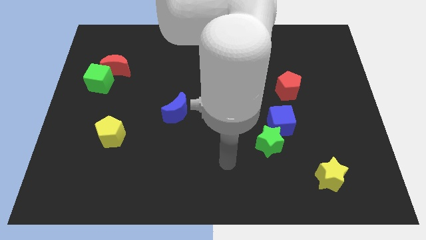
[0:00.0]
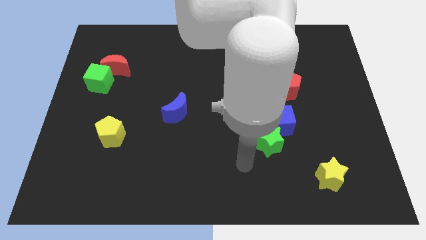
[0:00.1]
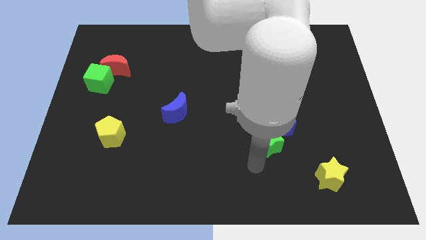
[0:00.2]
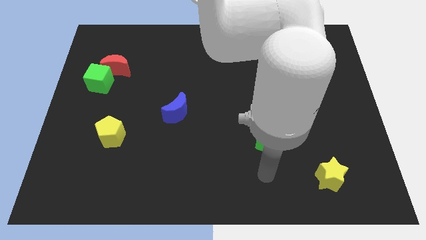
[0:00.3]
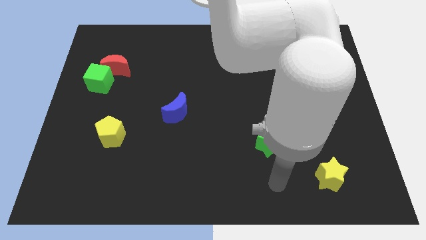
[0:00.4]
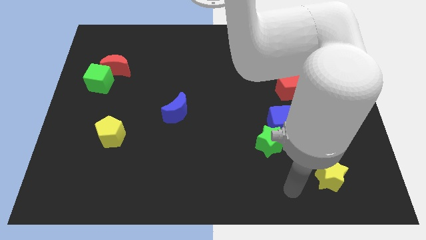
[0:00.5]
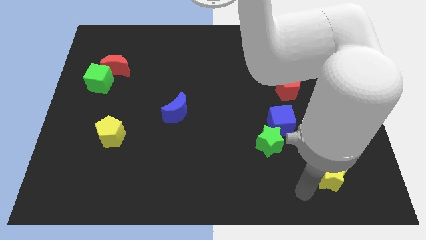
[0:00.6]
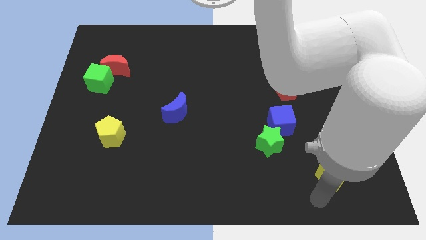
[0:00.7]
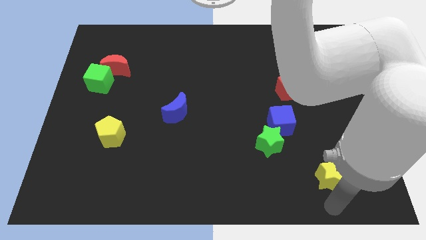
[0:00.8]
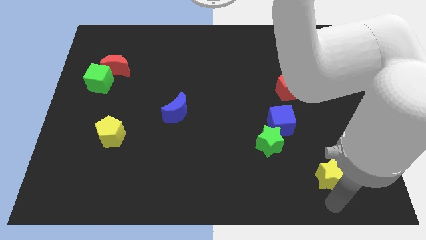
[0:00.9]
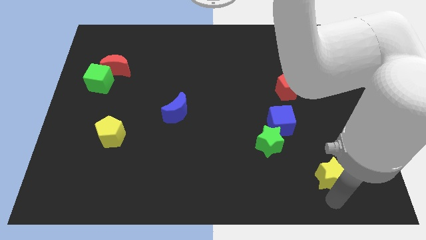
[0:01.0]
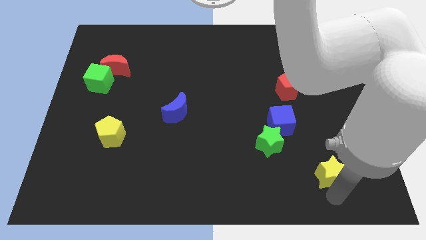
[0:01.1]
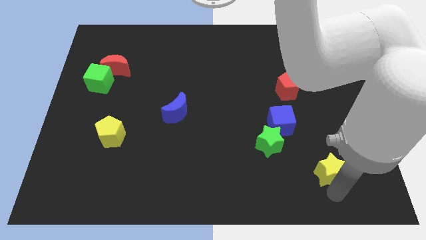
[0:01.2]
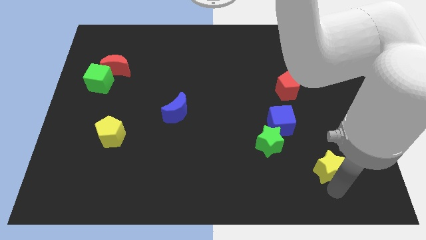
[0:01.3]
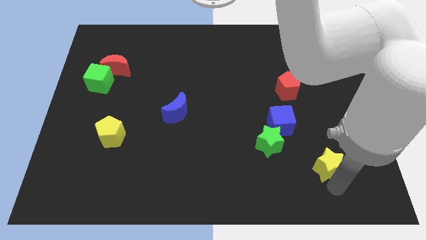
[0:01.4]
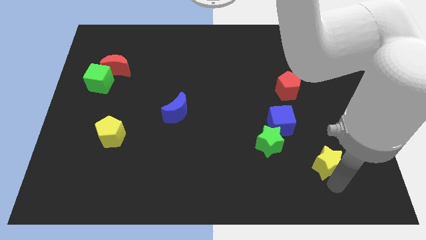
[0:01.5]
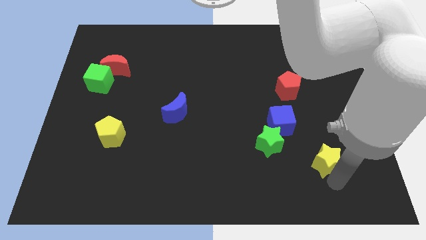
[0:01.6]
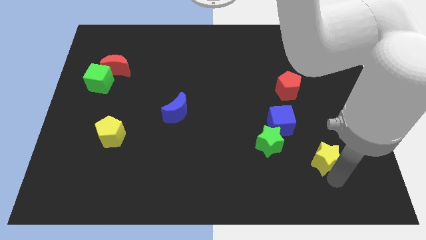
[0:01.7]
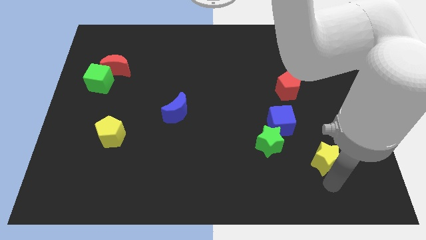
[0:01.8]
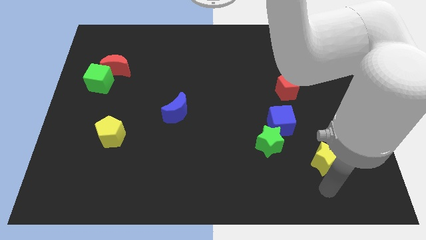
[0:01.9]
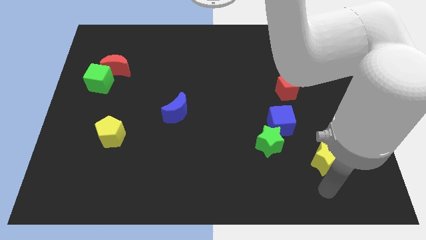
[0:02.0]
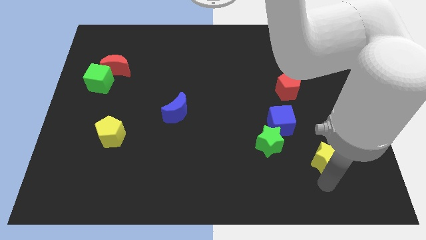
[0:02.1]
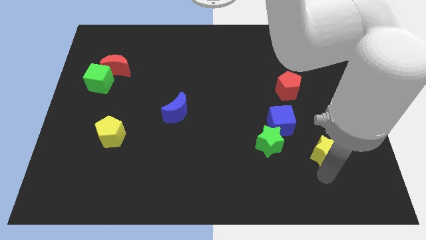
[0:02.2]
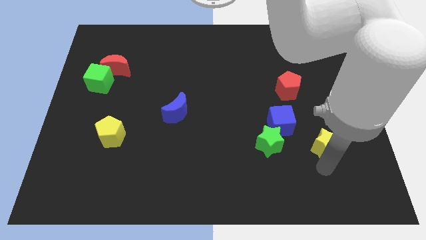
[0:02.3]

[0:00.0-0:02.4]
slide the yellow star a little upwards

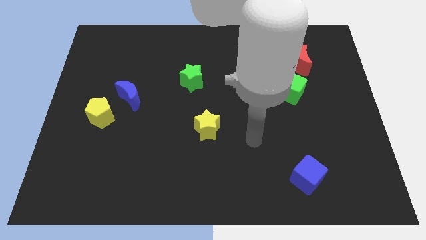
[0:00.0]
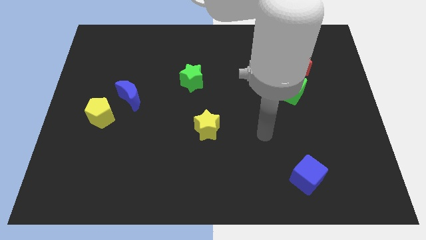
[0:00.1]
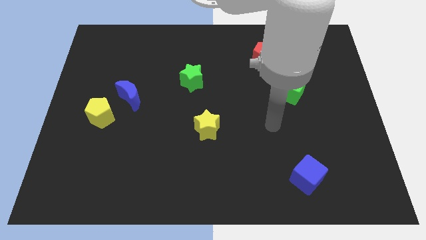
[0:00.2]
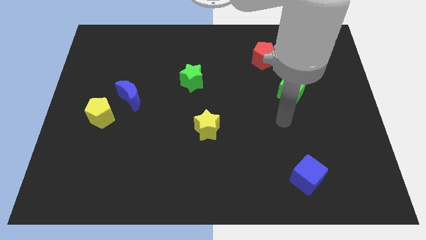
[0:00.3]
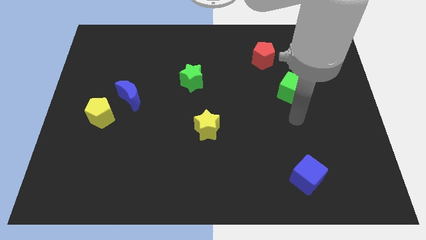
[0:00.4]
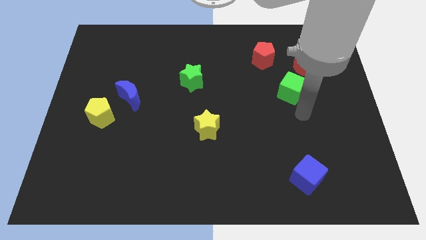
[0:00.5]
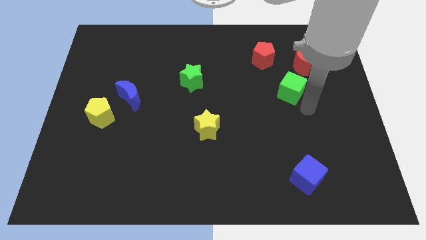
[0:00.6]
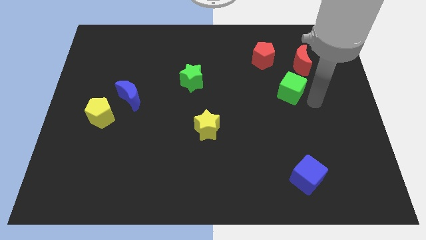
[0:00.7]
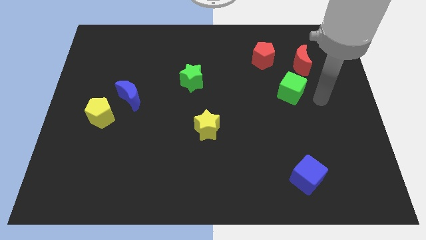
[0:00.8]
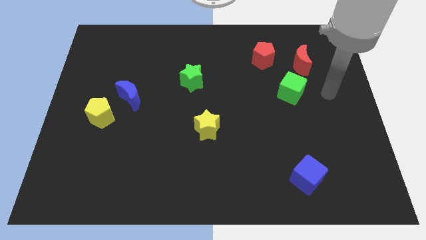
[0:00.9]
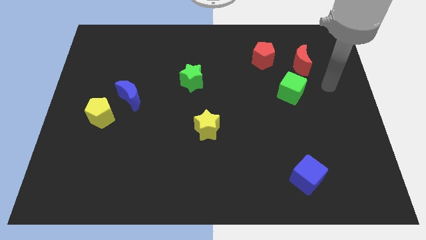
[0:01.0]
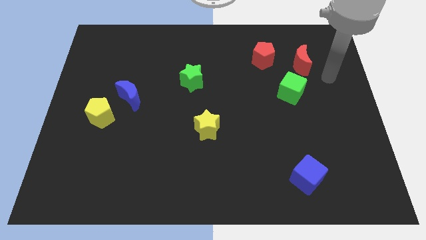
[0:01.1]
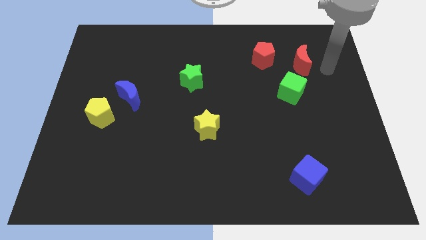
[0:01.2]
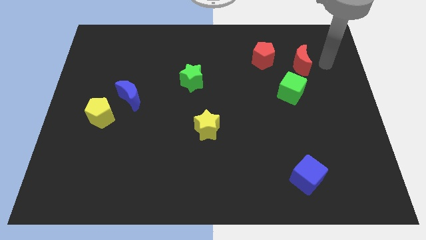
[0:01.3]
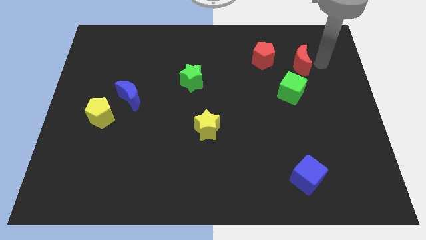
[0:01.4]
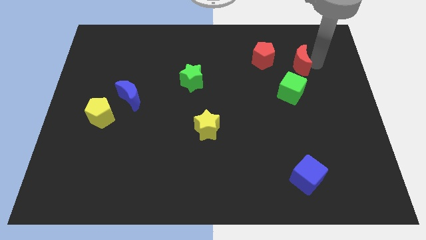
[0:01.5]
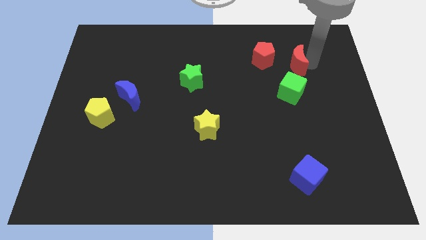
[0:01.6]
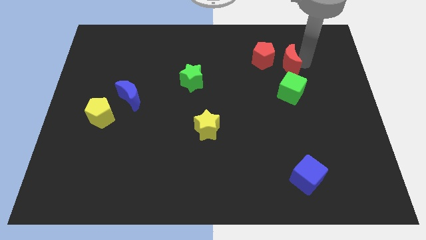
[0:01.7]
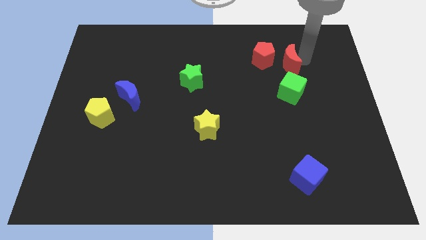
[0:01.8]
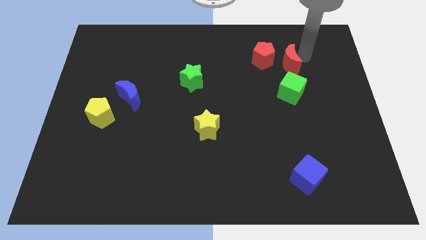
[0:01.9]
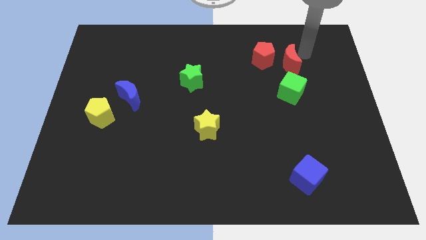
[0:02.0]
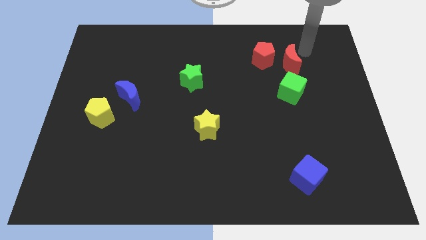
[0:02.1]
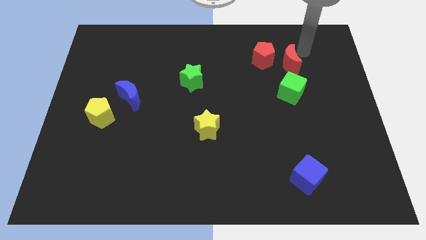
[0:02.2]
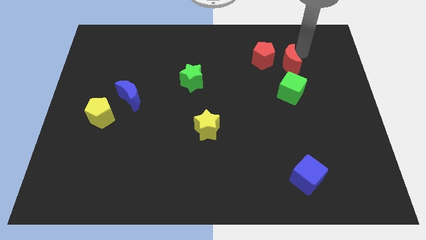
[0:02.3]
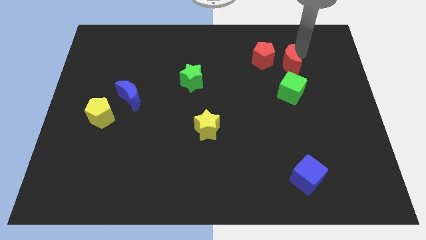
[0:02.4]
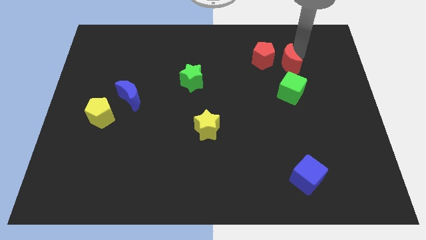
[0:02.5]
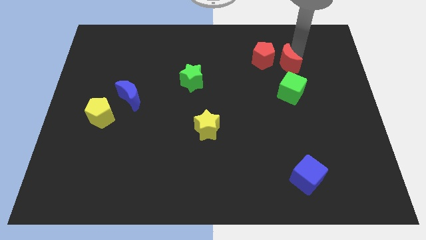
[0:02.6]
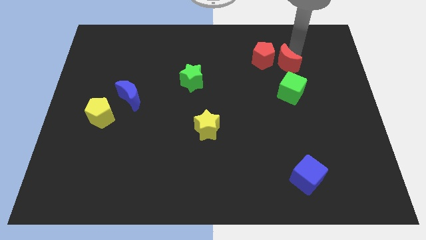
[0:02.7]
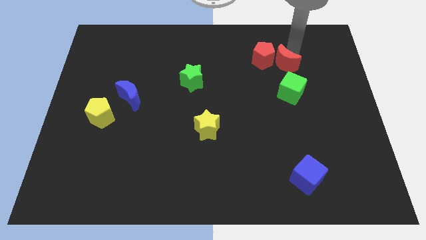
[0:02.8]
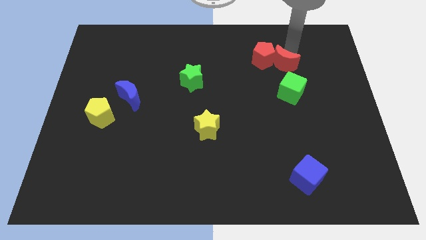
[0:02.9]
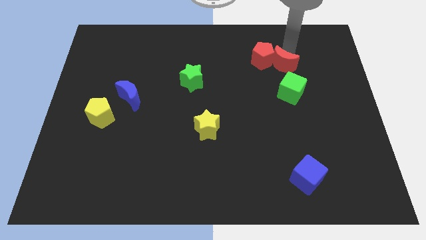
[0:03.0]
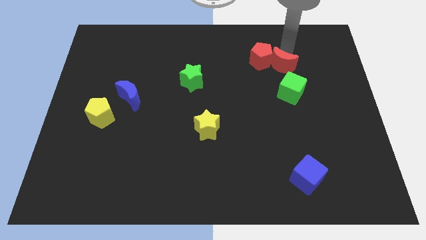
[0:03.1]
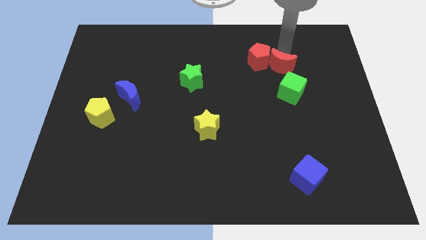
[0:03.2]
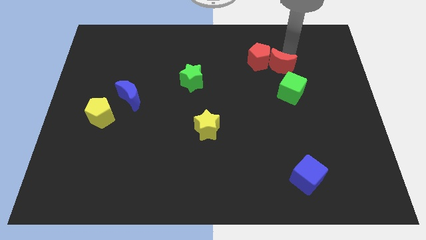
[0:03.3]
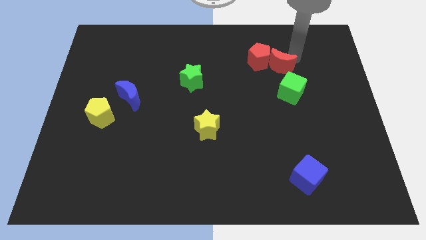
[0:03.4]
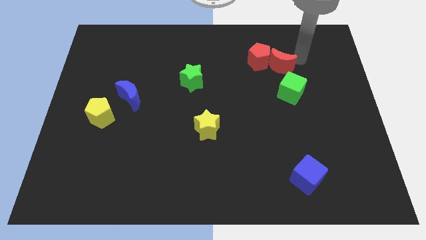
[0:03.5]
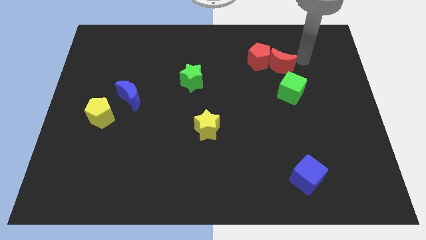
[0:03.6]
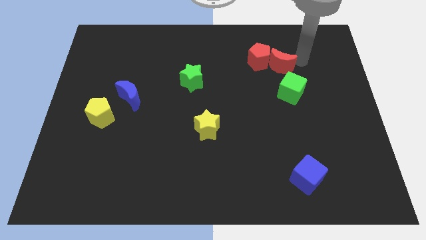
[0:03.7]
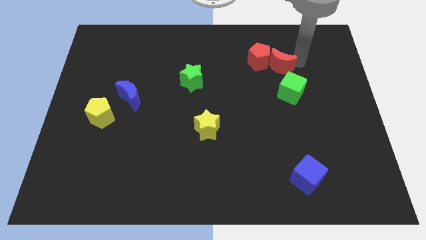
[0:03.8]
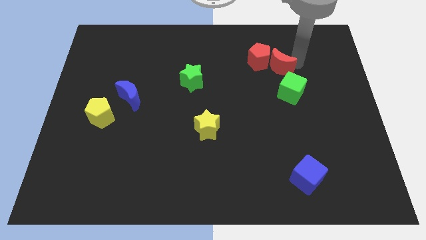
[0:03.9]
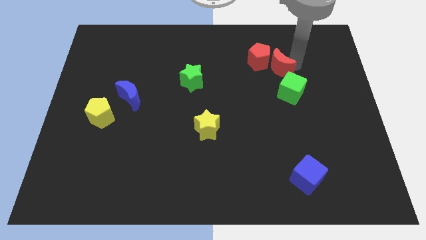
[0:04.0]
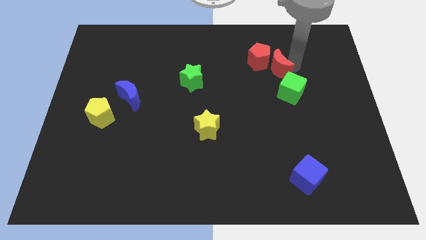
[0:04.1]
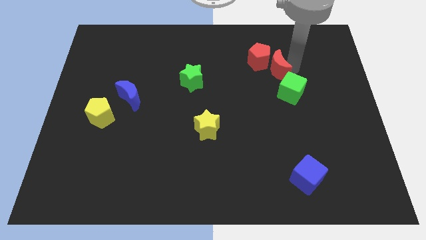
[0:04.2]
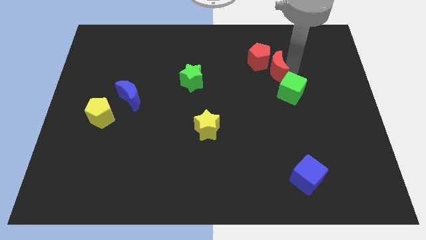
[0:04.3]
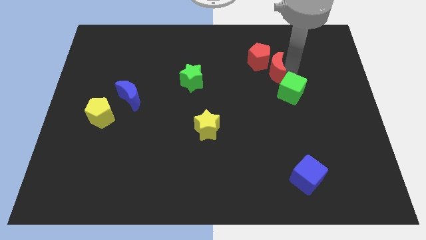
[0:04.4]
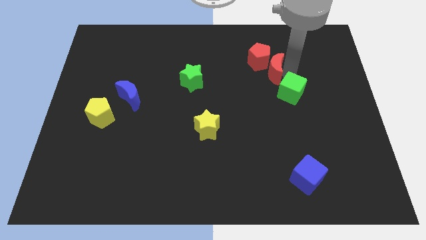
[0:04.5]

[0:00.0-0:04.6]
slightly move the red moon to the left

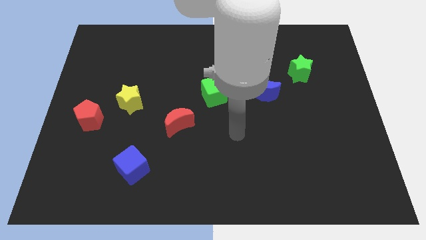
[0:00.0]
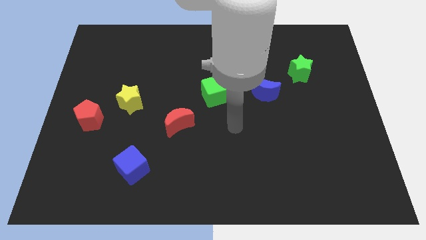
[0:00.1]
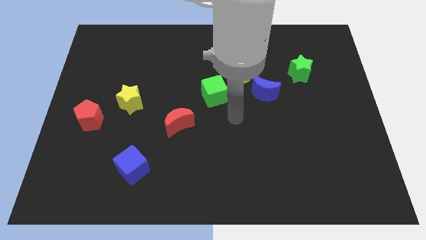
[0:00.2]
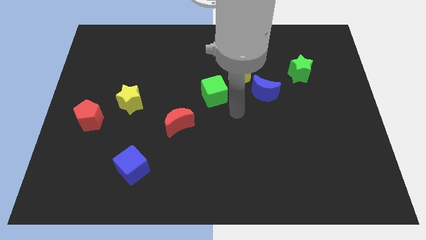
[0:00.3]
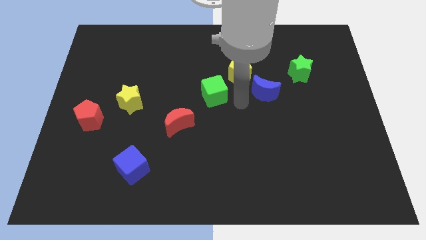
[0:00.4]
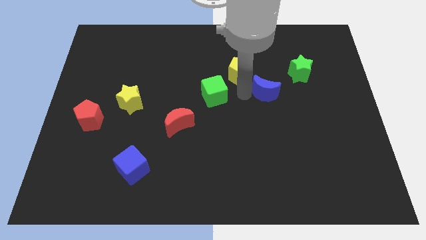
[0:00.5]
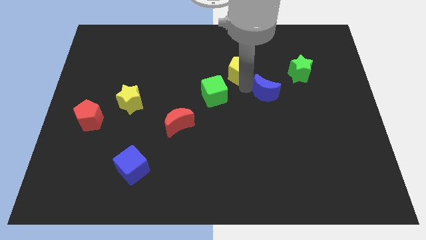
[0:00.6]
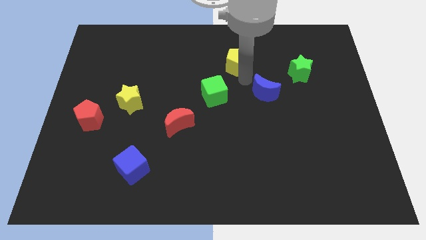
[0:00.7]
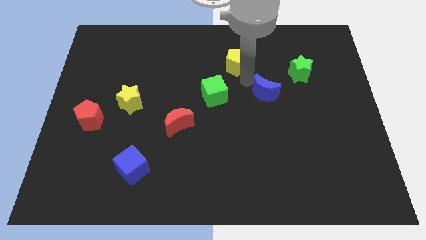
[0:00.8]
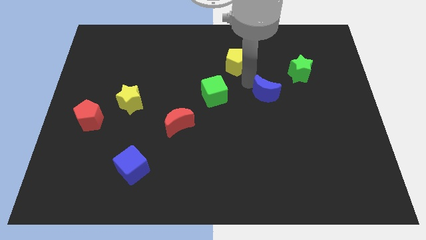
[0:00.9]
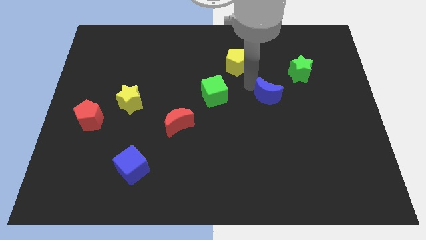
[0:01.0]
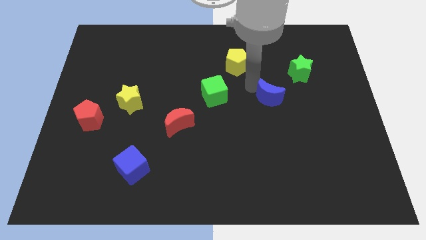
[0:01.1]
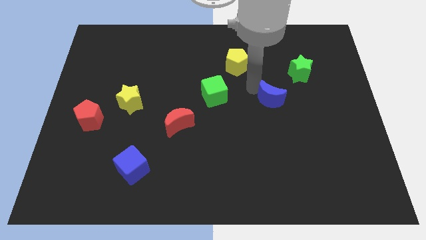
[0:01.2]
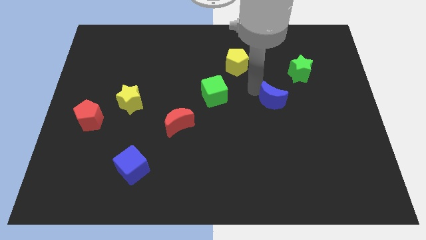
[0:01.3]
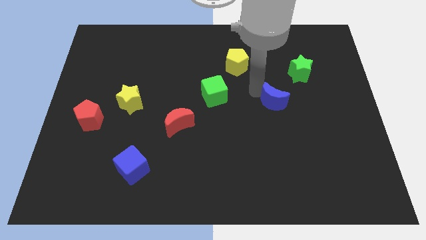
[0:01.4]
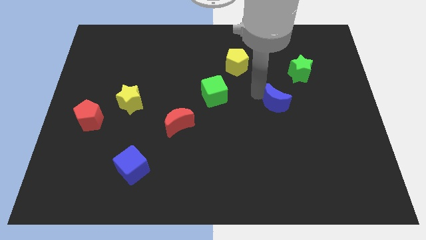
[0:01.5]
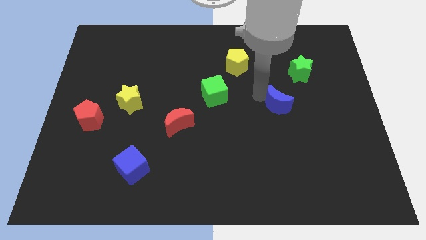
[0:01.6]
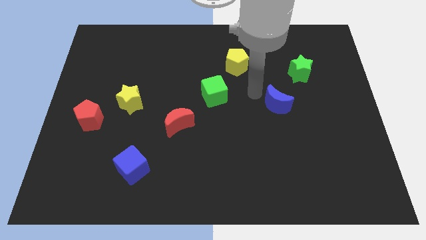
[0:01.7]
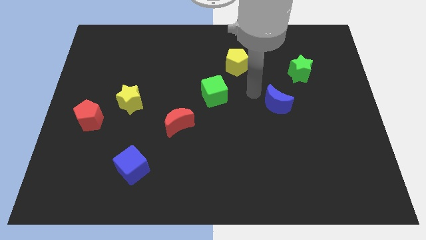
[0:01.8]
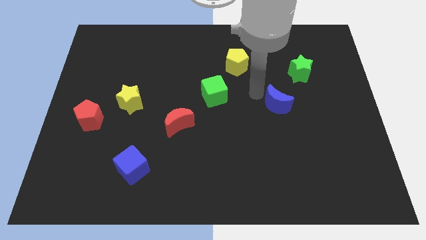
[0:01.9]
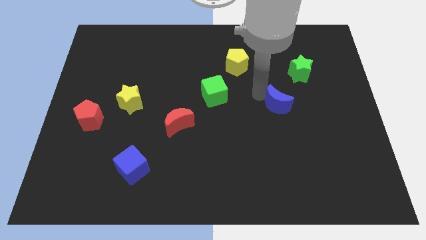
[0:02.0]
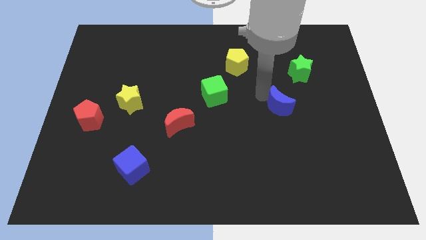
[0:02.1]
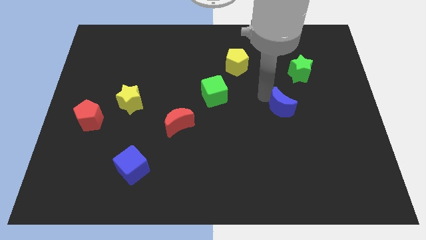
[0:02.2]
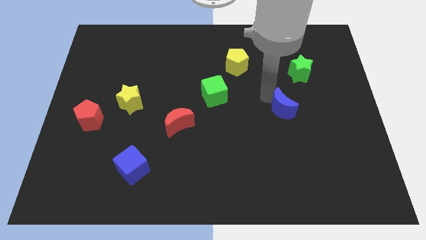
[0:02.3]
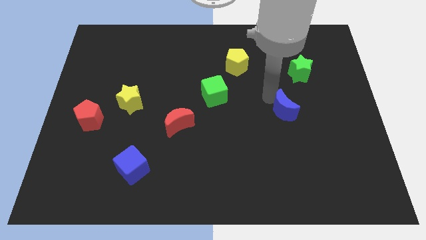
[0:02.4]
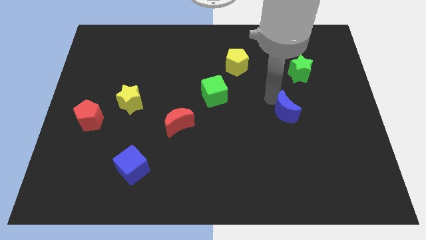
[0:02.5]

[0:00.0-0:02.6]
slightly slide the blue moon downwards and then to the right
